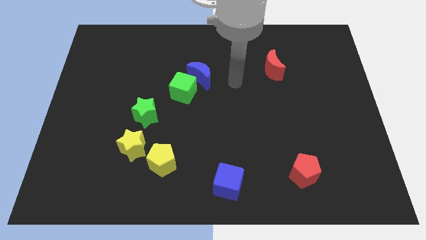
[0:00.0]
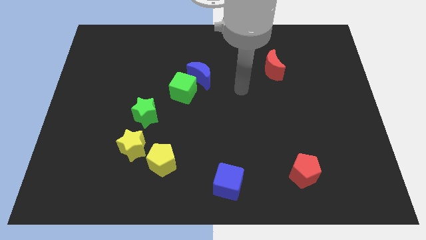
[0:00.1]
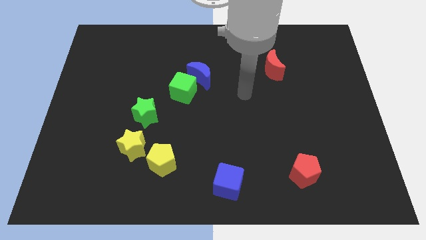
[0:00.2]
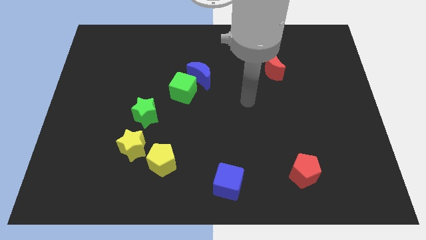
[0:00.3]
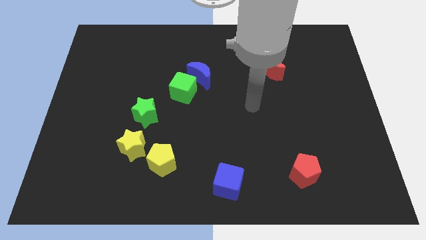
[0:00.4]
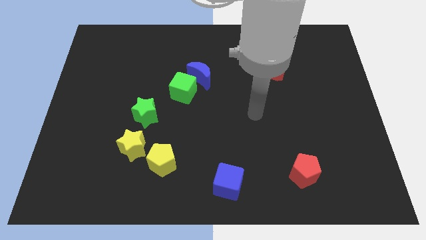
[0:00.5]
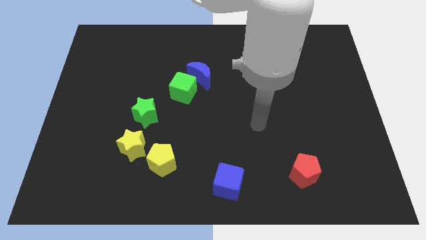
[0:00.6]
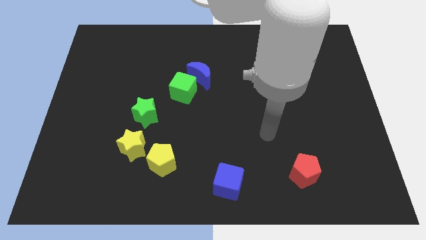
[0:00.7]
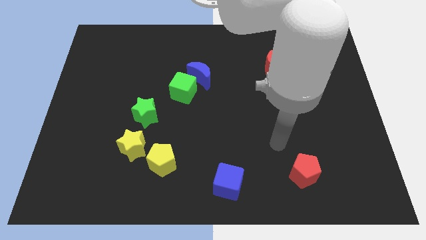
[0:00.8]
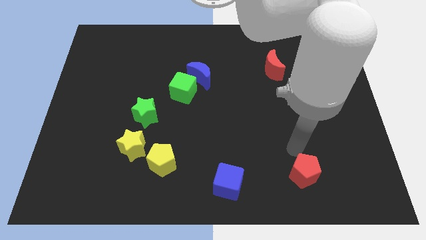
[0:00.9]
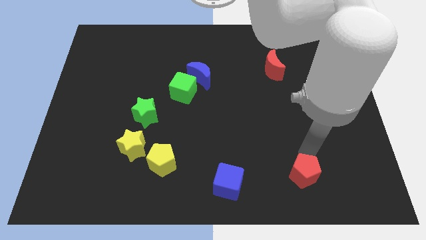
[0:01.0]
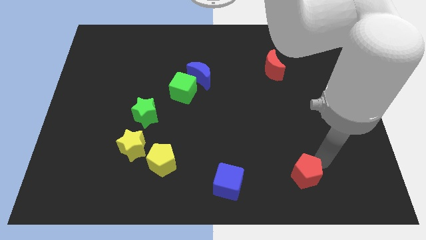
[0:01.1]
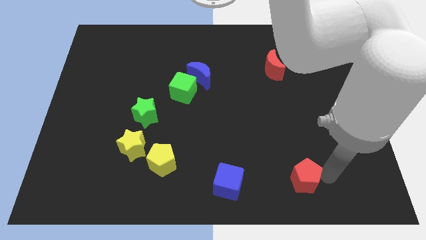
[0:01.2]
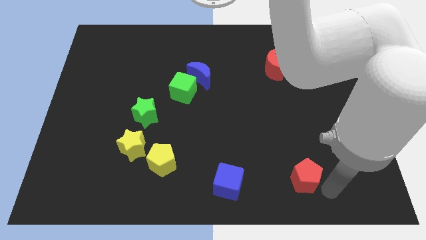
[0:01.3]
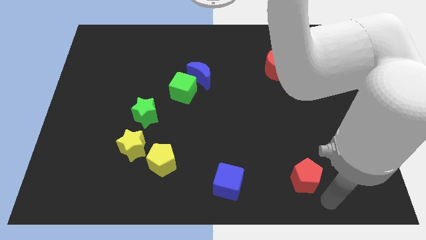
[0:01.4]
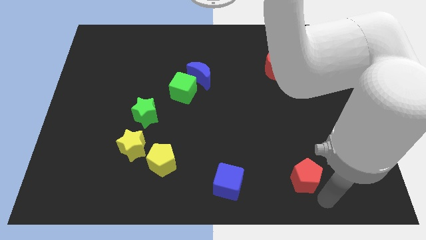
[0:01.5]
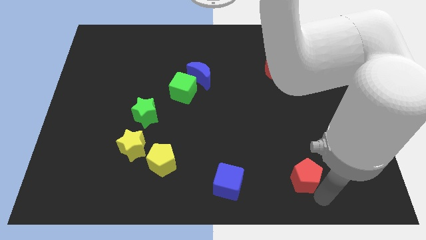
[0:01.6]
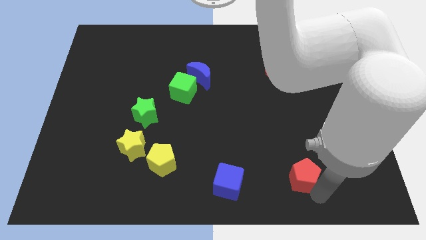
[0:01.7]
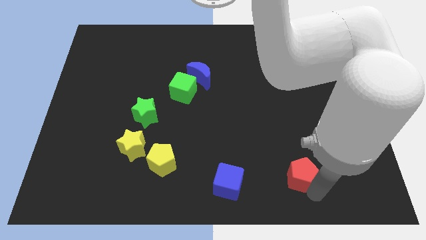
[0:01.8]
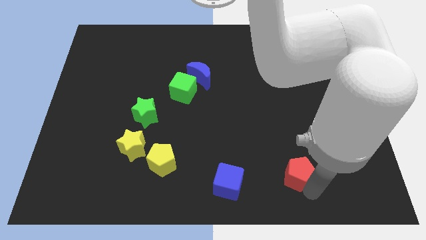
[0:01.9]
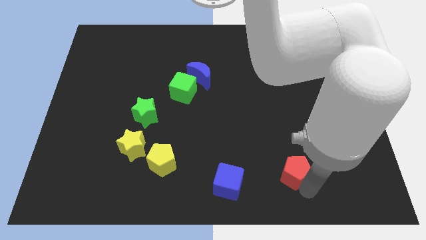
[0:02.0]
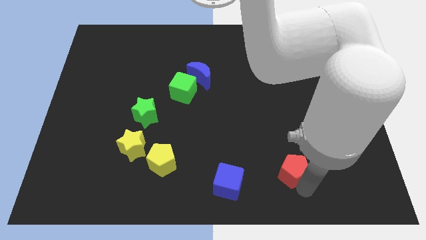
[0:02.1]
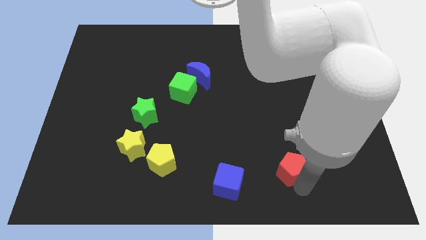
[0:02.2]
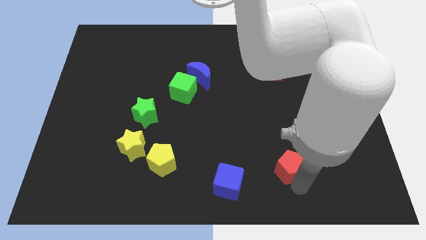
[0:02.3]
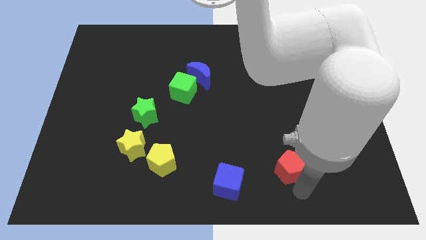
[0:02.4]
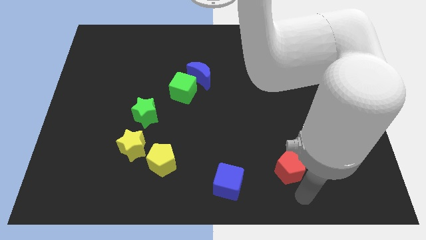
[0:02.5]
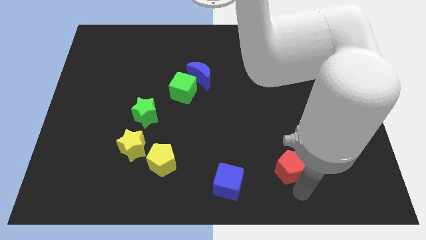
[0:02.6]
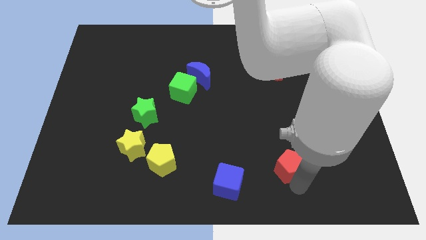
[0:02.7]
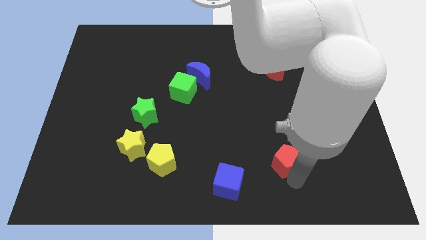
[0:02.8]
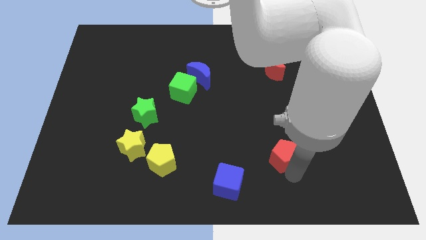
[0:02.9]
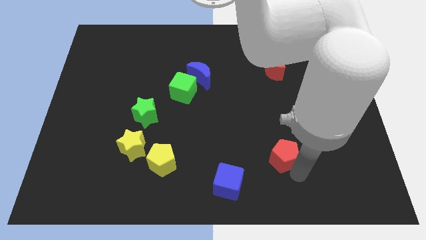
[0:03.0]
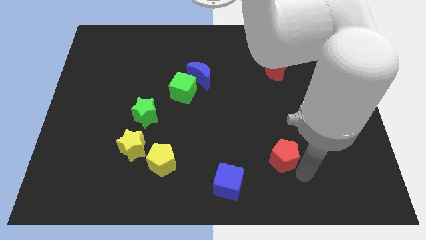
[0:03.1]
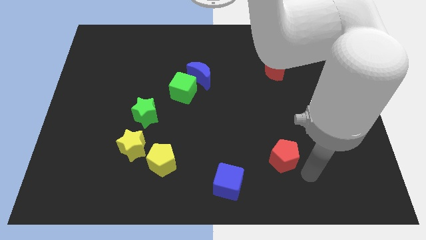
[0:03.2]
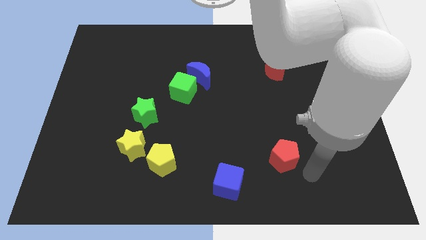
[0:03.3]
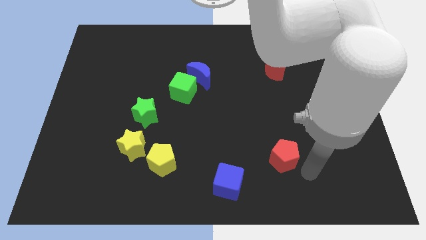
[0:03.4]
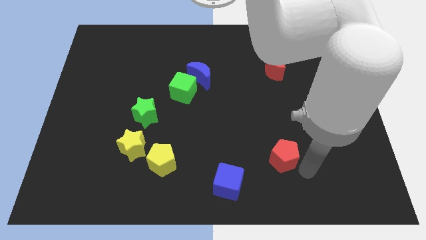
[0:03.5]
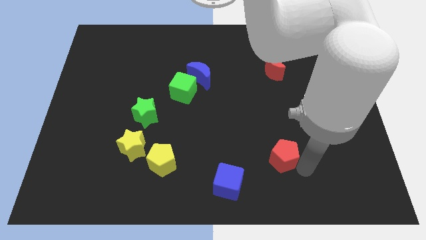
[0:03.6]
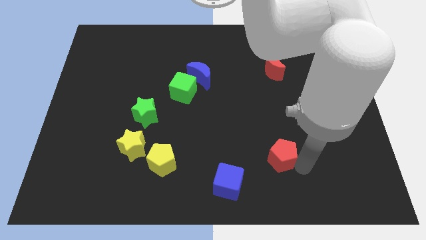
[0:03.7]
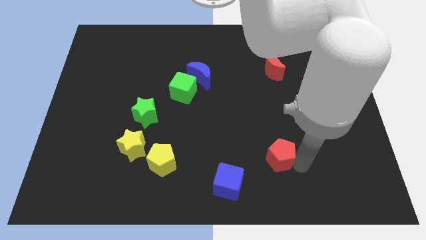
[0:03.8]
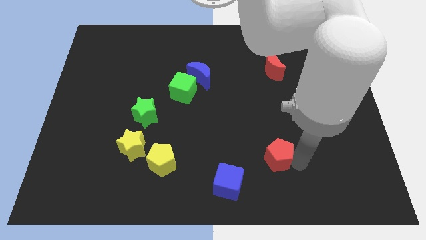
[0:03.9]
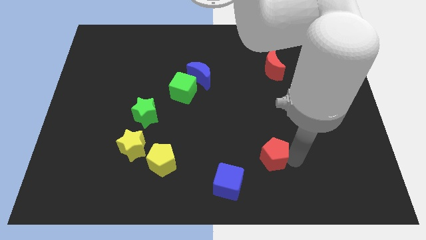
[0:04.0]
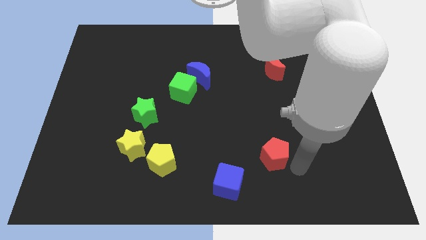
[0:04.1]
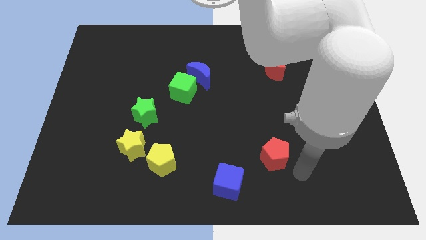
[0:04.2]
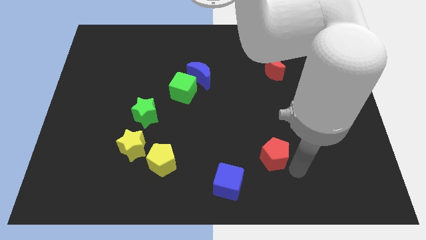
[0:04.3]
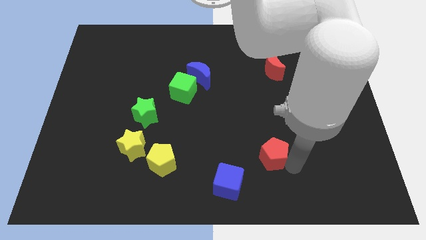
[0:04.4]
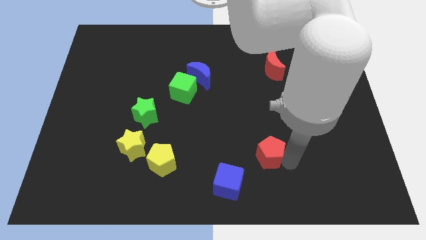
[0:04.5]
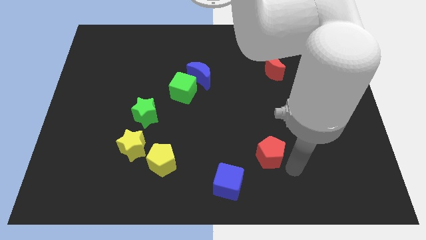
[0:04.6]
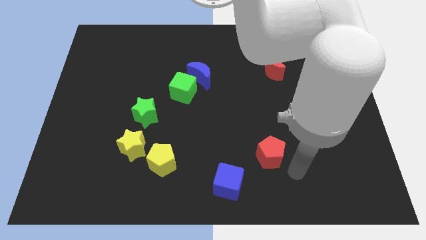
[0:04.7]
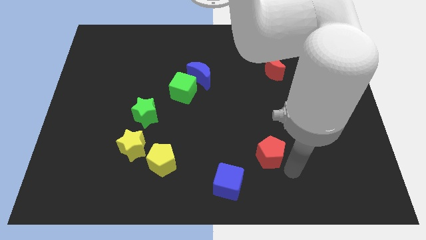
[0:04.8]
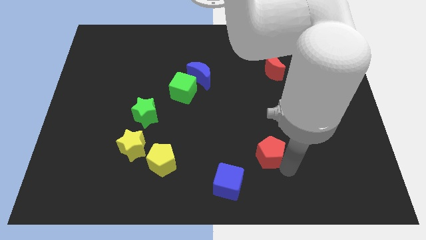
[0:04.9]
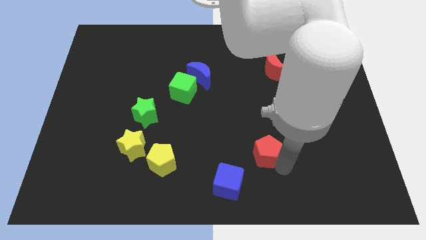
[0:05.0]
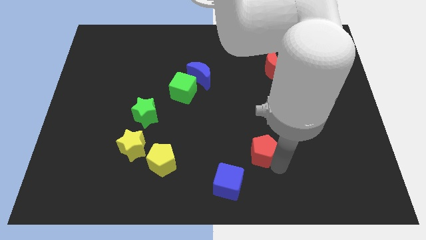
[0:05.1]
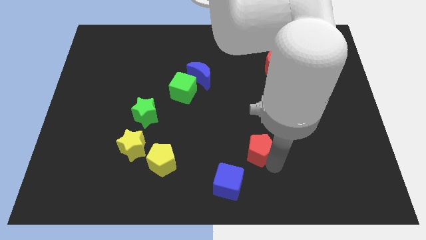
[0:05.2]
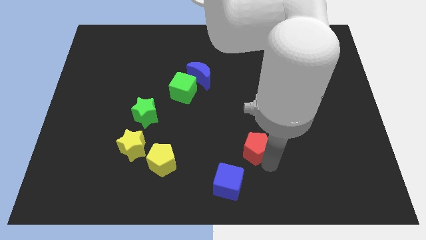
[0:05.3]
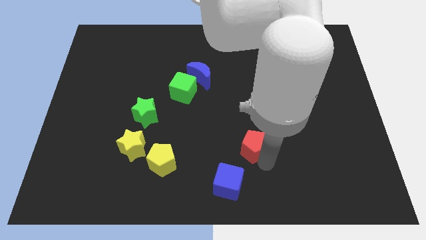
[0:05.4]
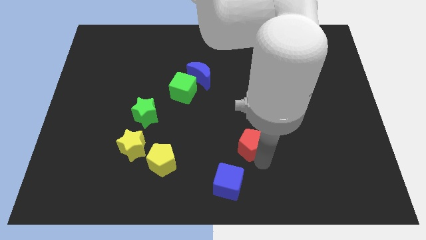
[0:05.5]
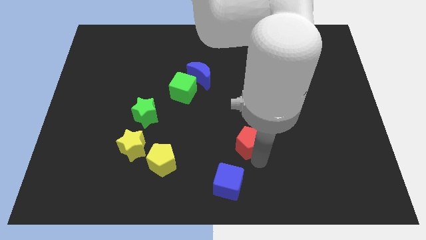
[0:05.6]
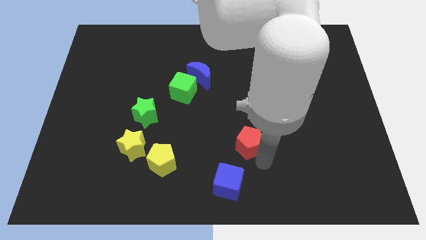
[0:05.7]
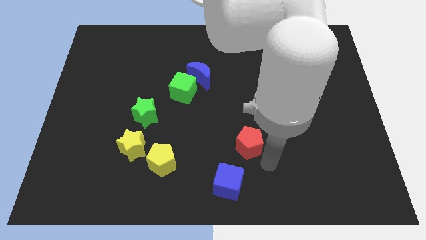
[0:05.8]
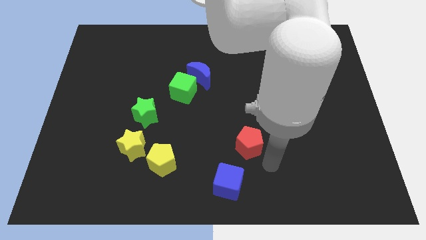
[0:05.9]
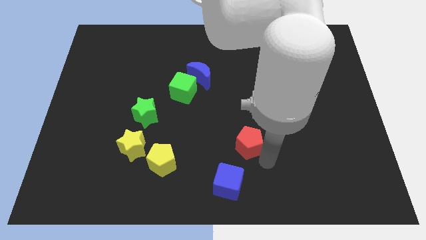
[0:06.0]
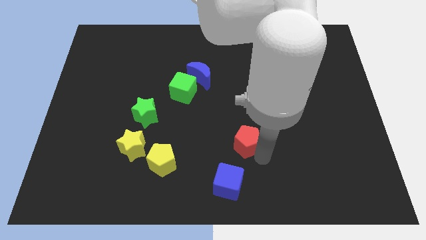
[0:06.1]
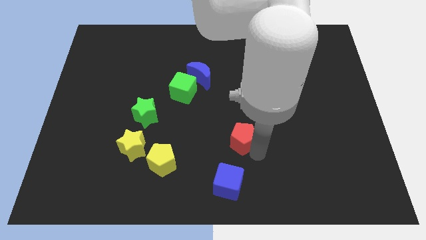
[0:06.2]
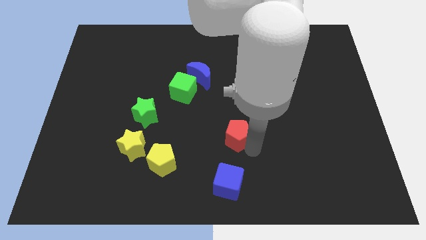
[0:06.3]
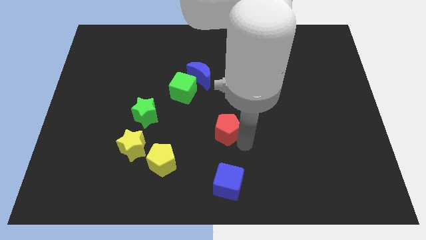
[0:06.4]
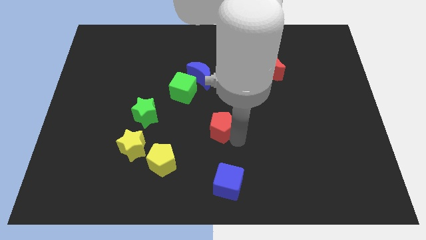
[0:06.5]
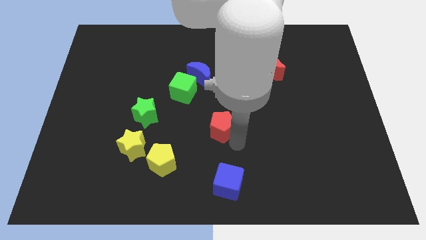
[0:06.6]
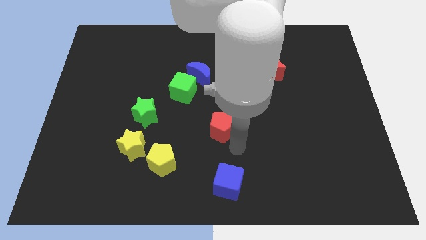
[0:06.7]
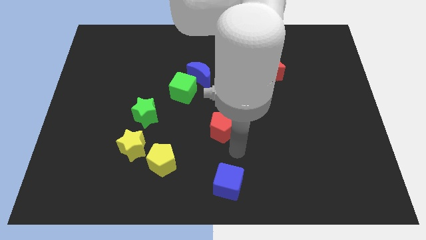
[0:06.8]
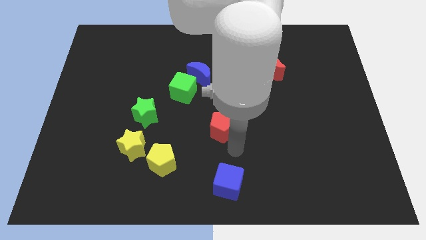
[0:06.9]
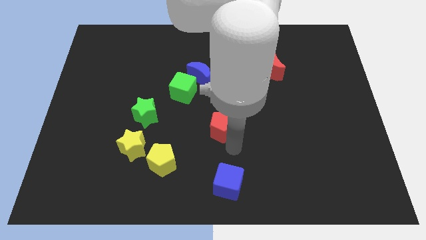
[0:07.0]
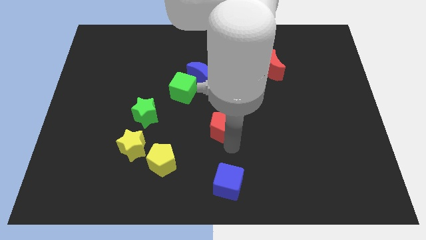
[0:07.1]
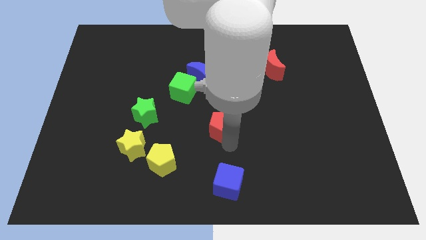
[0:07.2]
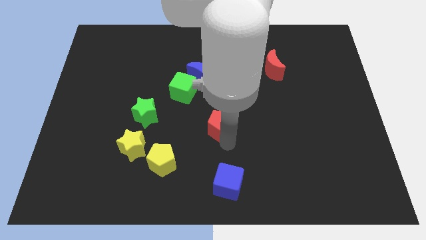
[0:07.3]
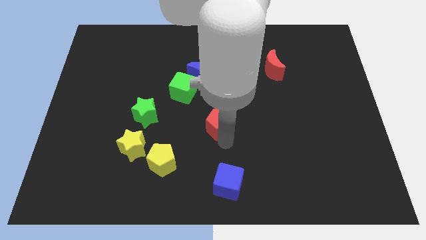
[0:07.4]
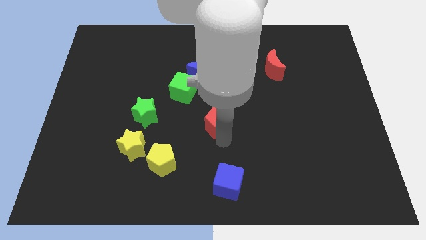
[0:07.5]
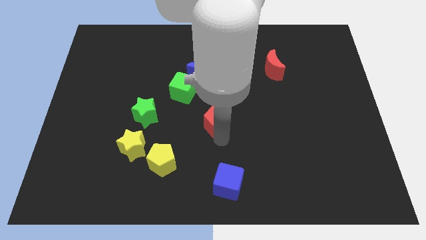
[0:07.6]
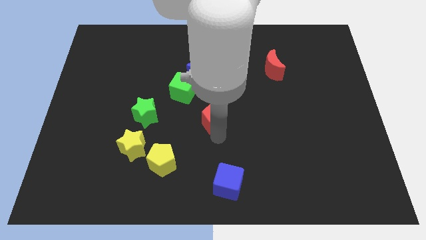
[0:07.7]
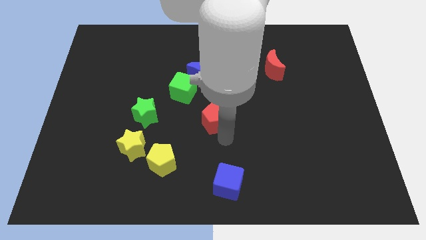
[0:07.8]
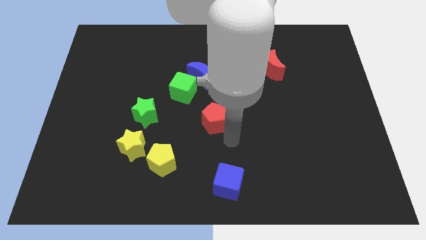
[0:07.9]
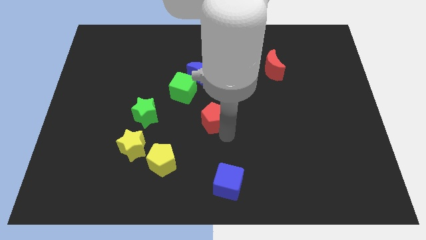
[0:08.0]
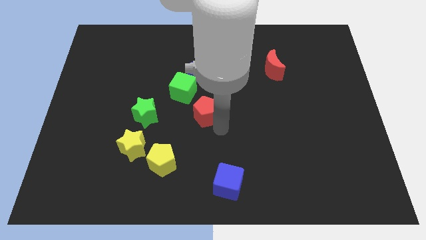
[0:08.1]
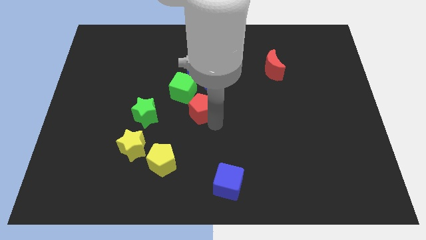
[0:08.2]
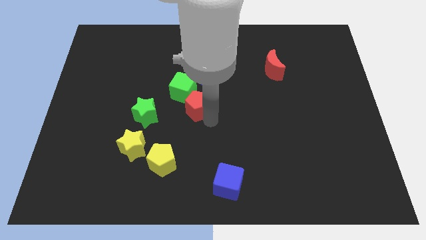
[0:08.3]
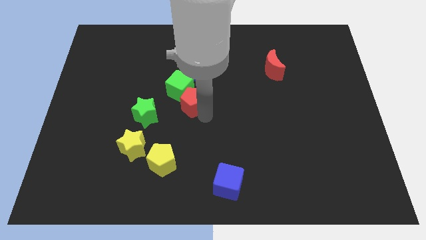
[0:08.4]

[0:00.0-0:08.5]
slide the red pentagon to the green cube
